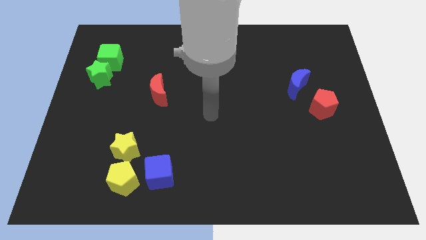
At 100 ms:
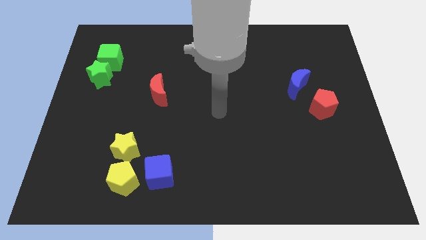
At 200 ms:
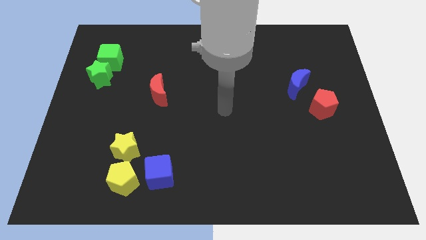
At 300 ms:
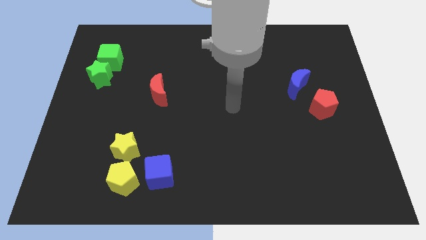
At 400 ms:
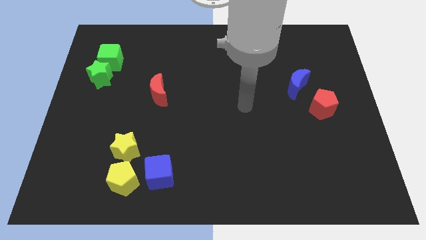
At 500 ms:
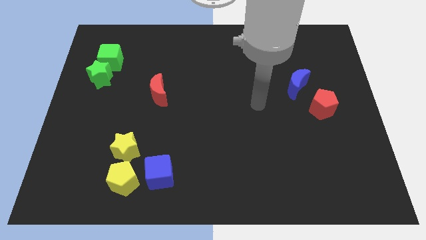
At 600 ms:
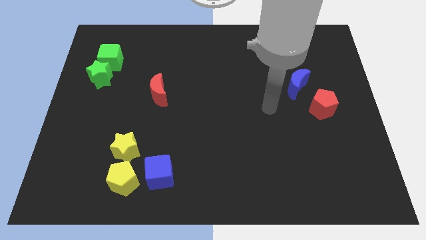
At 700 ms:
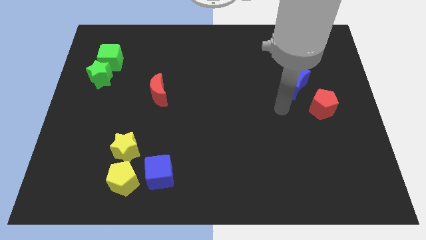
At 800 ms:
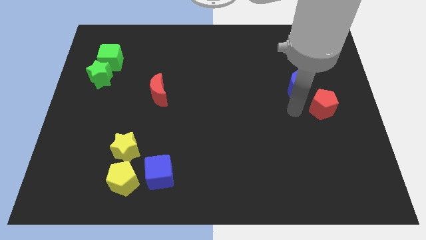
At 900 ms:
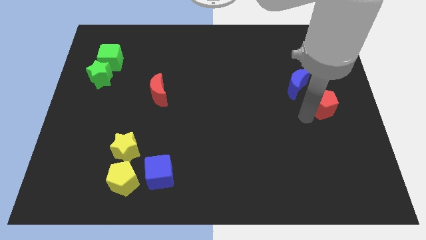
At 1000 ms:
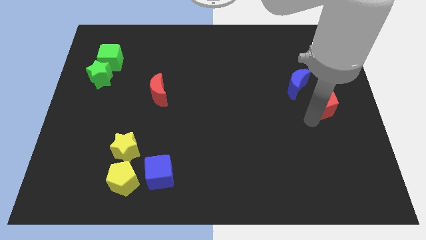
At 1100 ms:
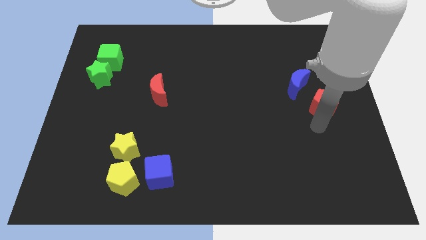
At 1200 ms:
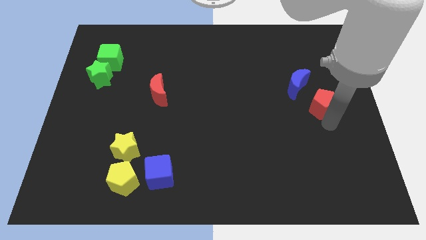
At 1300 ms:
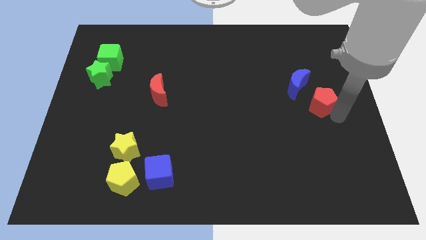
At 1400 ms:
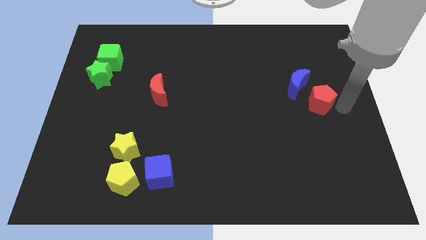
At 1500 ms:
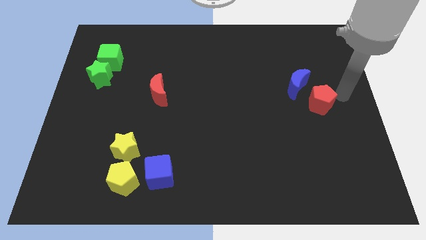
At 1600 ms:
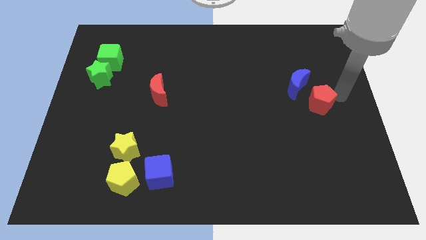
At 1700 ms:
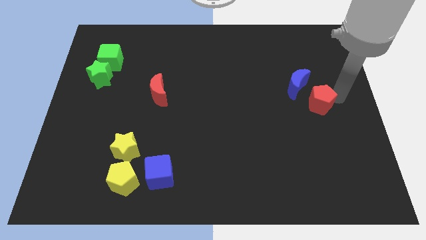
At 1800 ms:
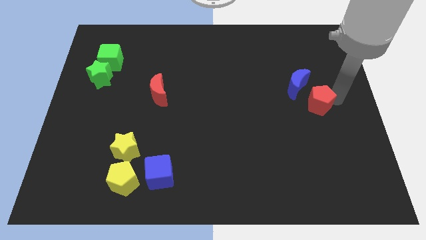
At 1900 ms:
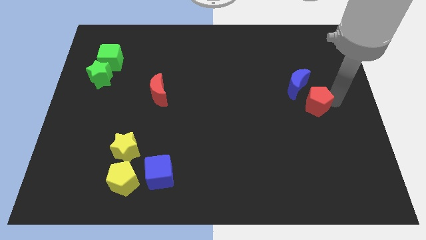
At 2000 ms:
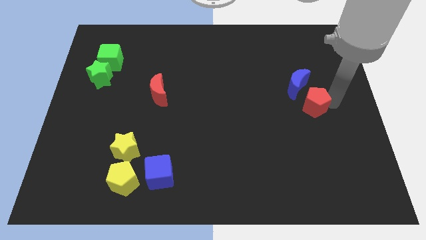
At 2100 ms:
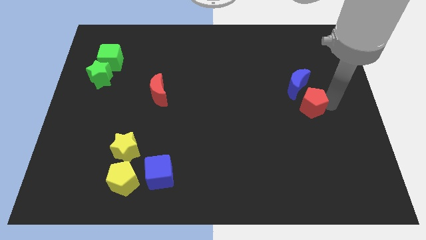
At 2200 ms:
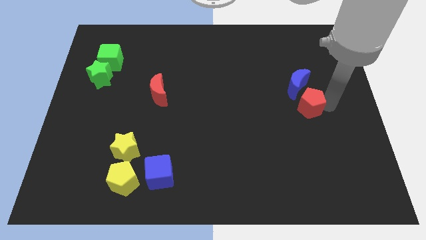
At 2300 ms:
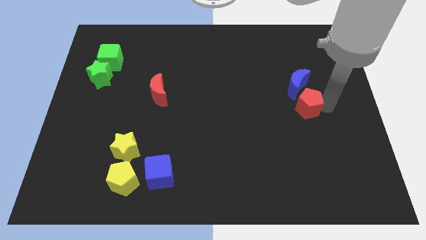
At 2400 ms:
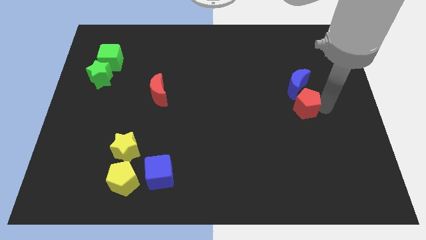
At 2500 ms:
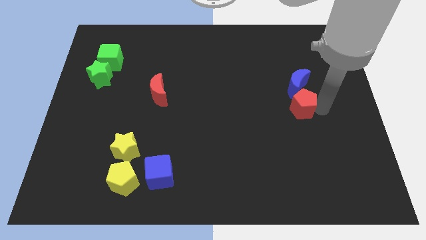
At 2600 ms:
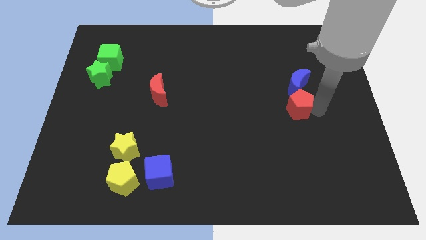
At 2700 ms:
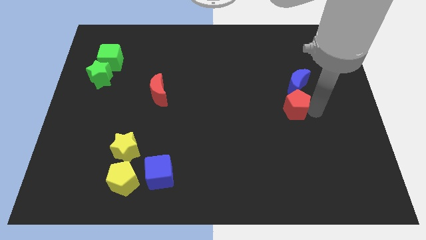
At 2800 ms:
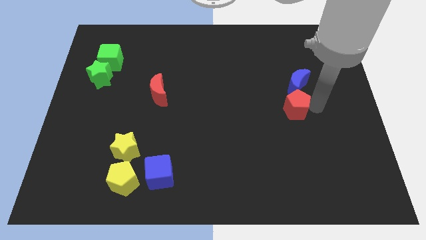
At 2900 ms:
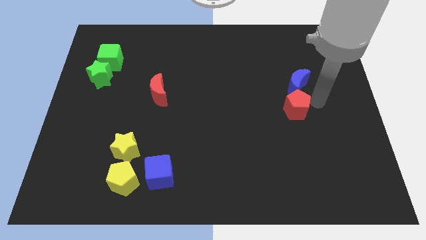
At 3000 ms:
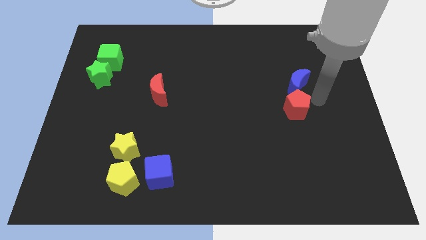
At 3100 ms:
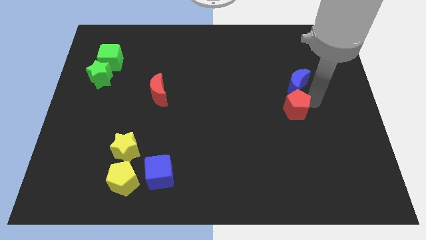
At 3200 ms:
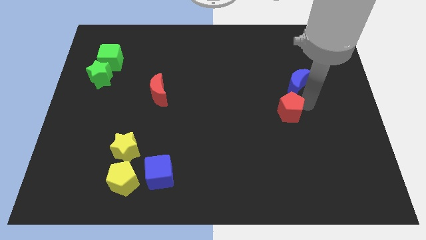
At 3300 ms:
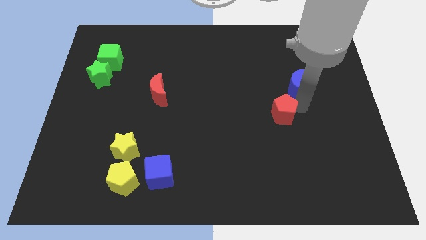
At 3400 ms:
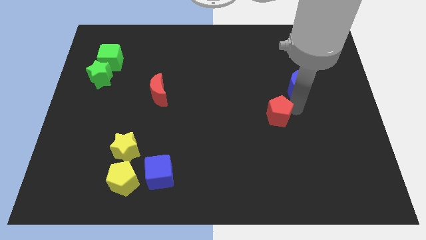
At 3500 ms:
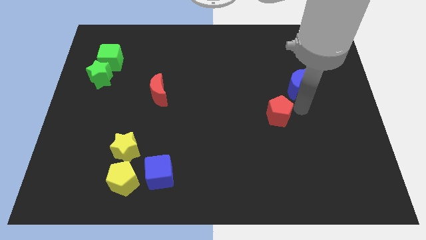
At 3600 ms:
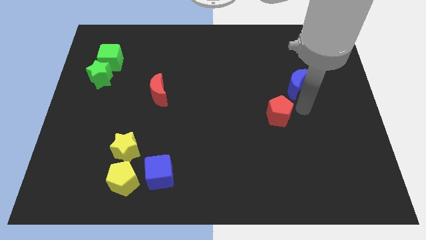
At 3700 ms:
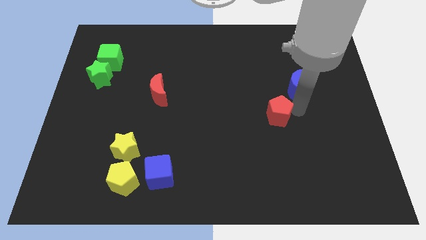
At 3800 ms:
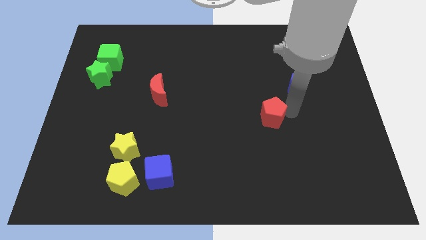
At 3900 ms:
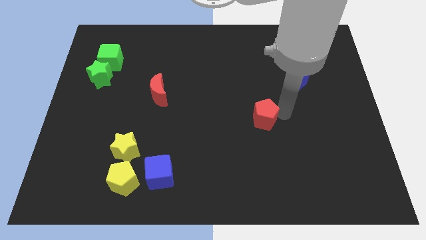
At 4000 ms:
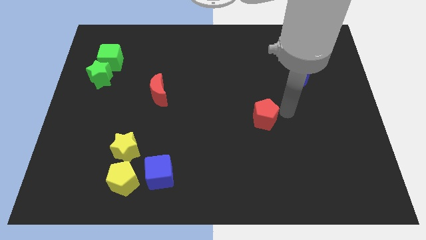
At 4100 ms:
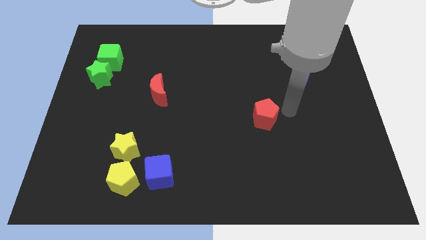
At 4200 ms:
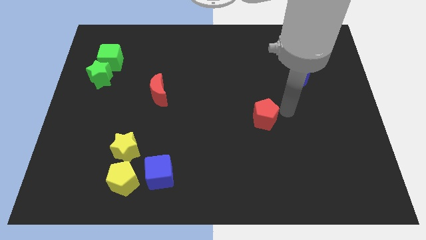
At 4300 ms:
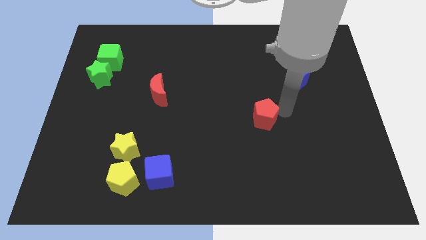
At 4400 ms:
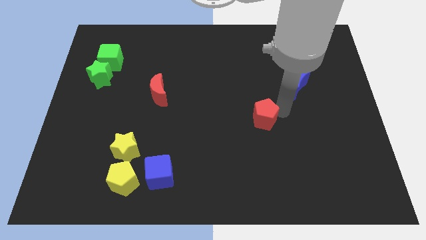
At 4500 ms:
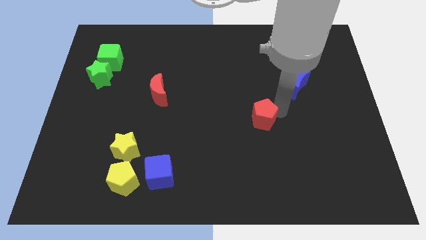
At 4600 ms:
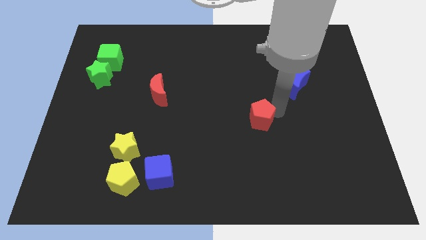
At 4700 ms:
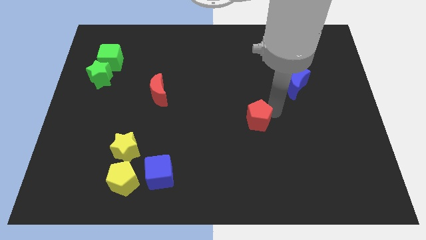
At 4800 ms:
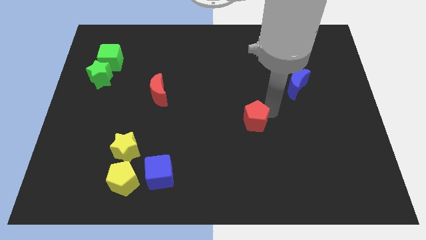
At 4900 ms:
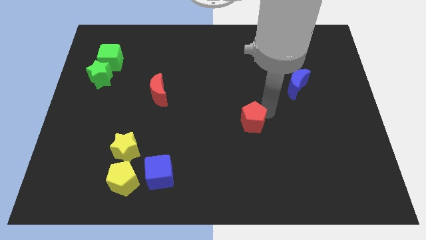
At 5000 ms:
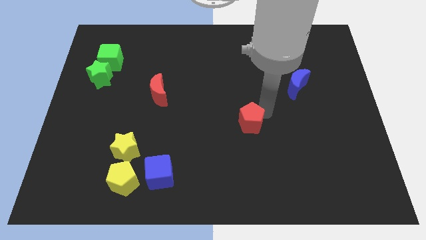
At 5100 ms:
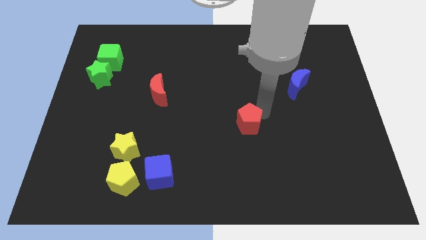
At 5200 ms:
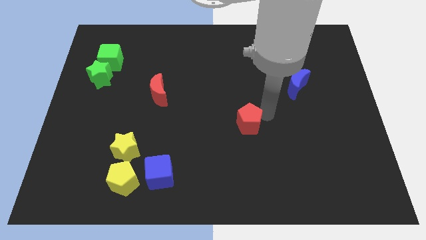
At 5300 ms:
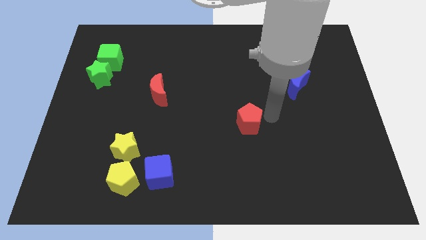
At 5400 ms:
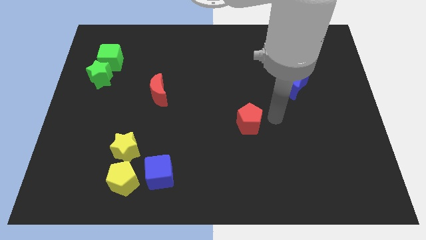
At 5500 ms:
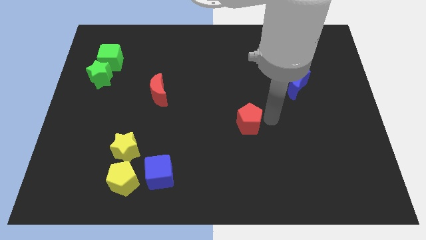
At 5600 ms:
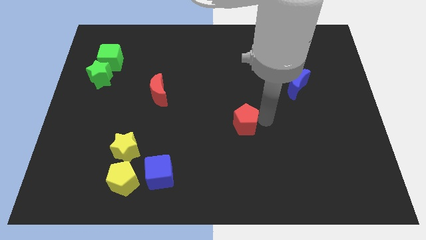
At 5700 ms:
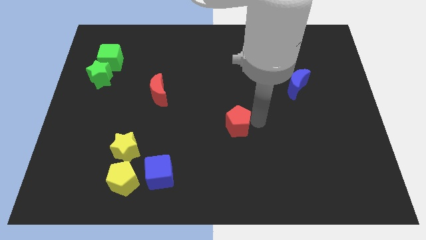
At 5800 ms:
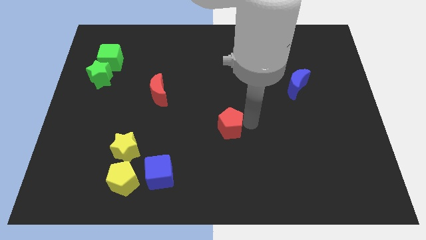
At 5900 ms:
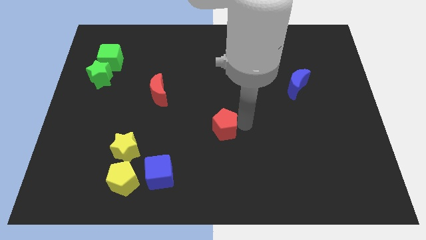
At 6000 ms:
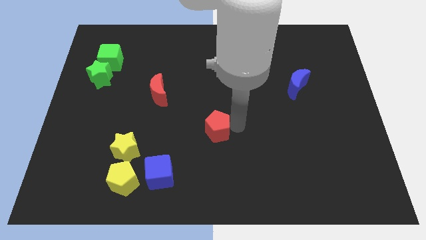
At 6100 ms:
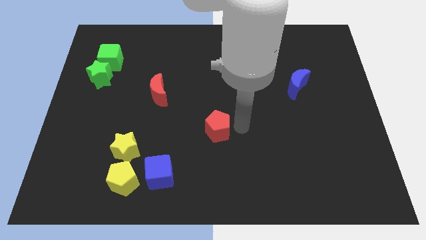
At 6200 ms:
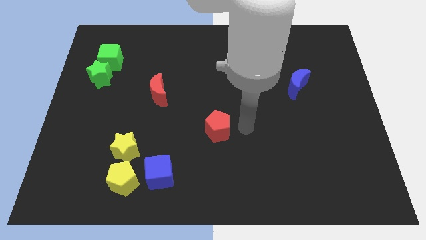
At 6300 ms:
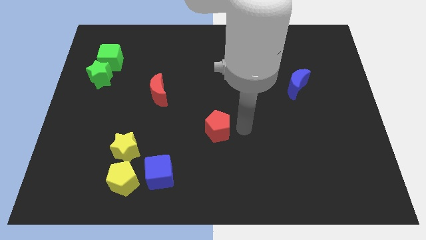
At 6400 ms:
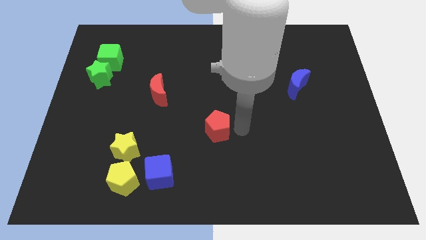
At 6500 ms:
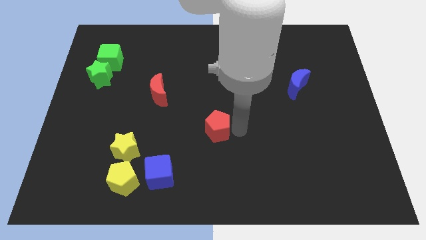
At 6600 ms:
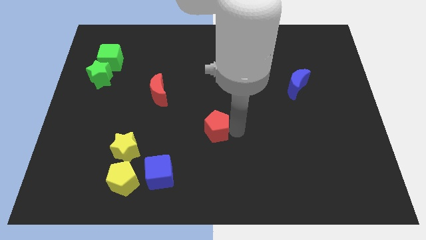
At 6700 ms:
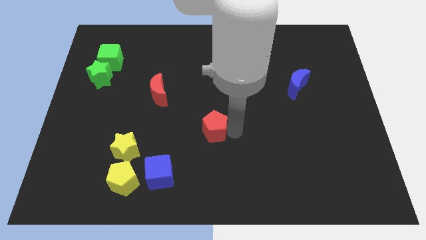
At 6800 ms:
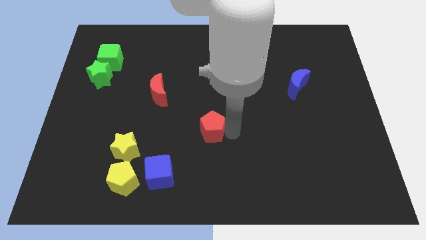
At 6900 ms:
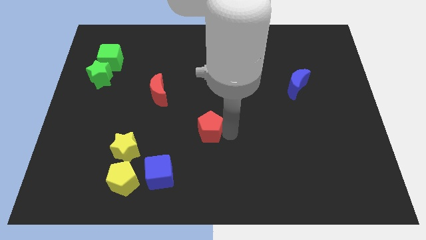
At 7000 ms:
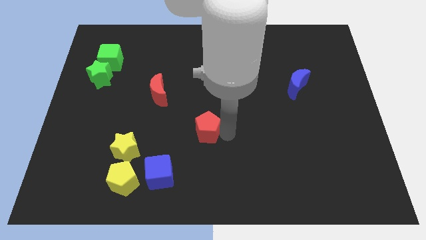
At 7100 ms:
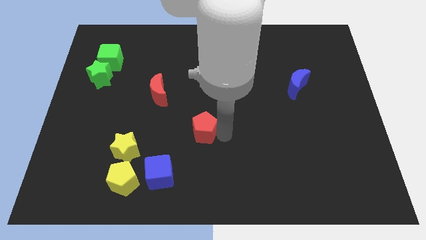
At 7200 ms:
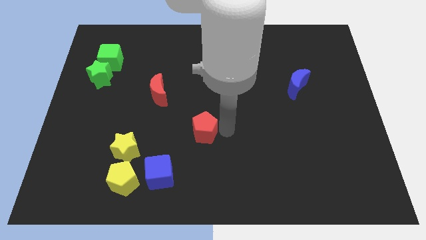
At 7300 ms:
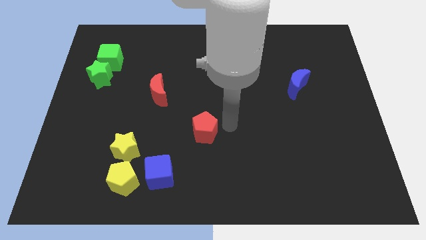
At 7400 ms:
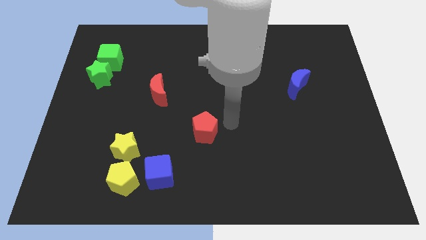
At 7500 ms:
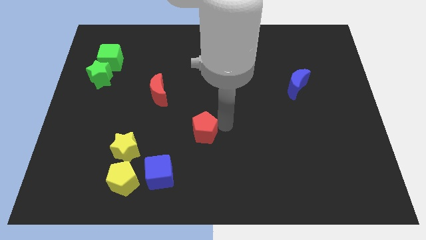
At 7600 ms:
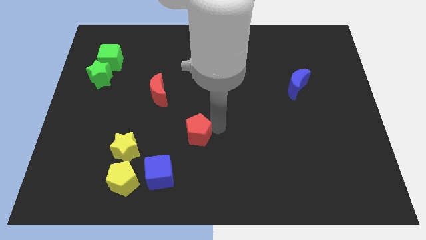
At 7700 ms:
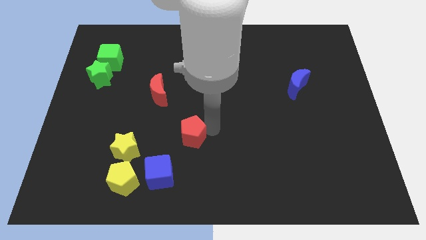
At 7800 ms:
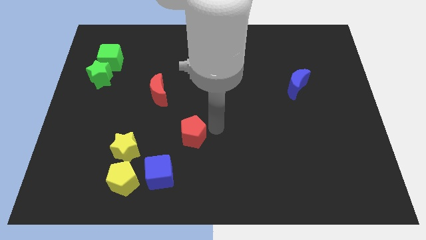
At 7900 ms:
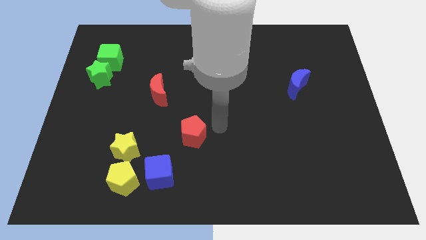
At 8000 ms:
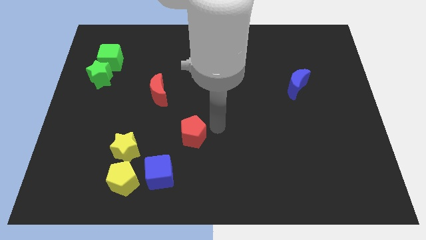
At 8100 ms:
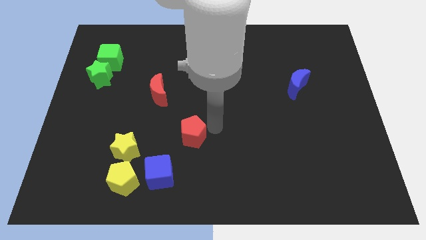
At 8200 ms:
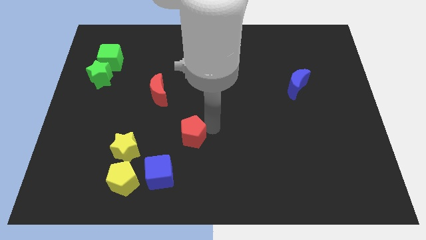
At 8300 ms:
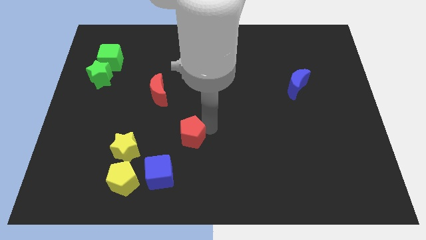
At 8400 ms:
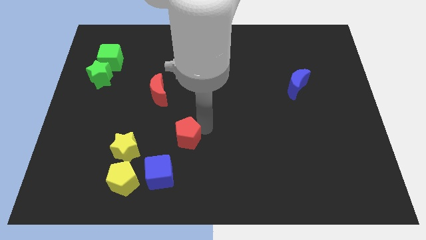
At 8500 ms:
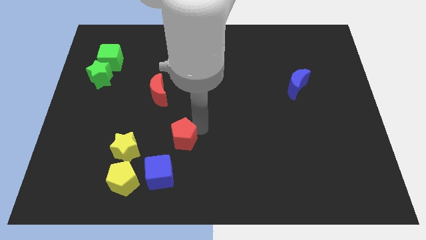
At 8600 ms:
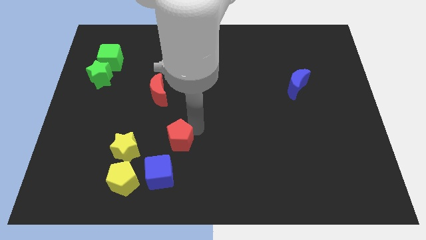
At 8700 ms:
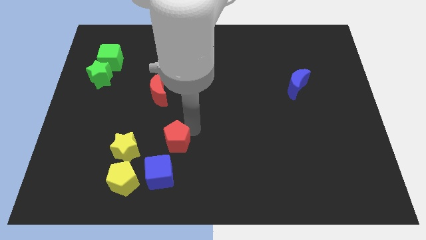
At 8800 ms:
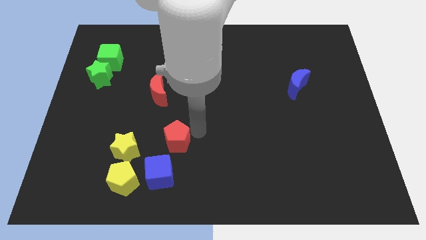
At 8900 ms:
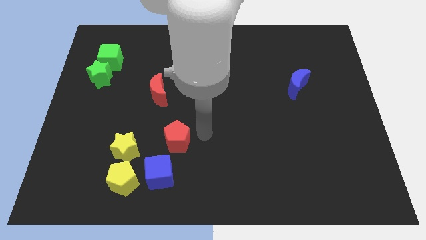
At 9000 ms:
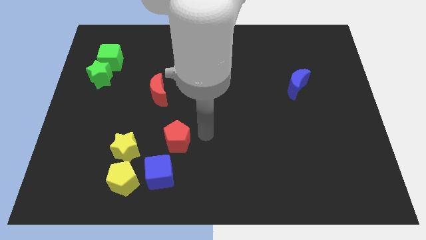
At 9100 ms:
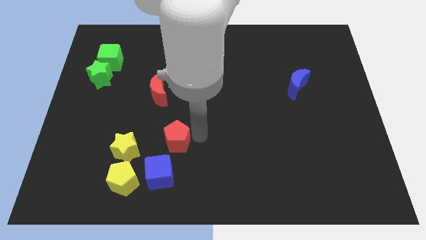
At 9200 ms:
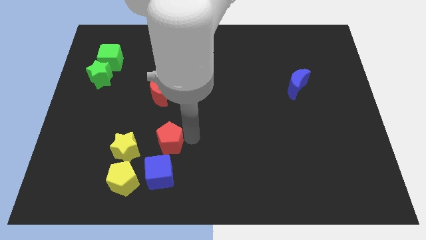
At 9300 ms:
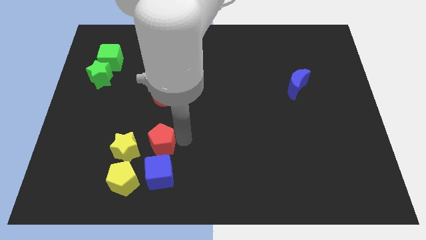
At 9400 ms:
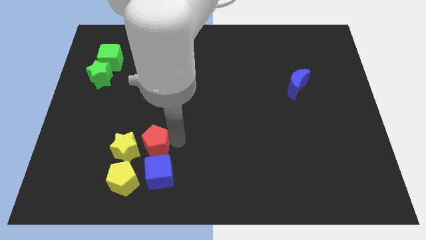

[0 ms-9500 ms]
push the red pentagon to the yellow star
